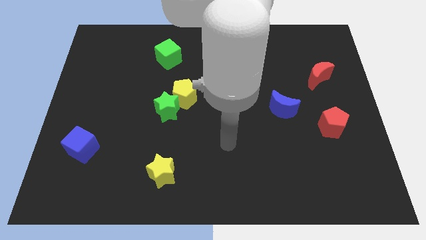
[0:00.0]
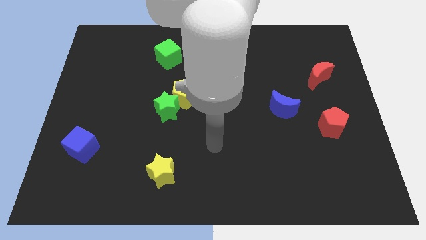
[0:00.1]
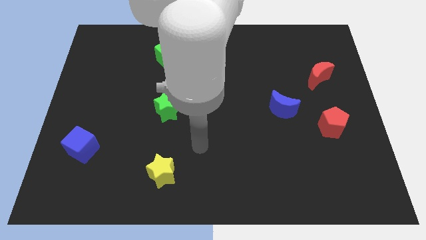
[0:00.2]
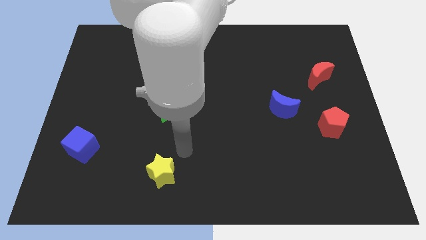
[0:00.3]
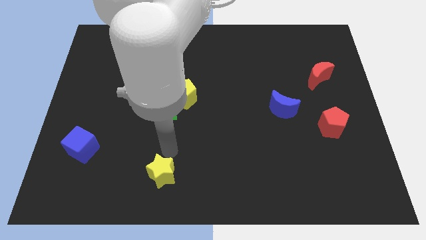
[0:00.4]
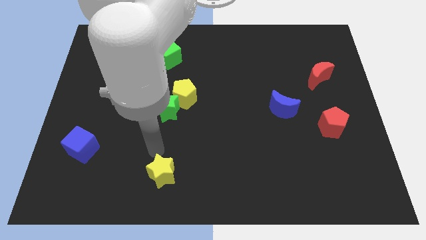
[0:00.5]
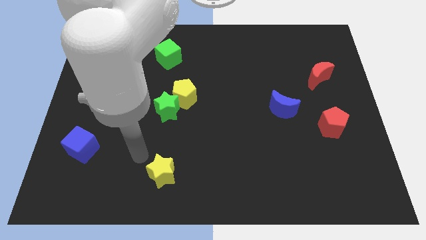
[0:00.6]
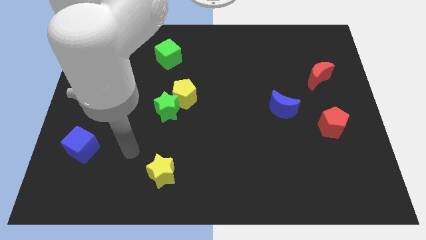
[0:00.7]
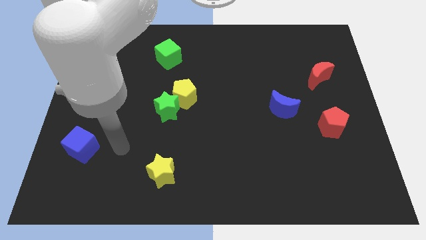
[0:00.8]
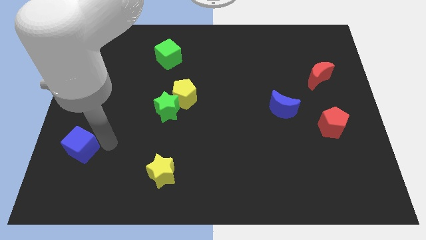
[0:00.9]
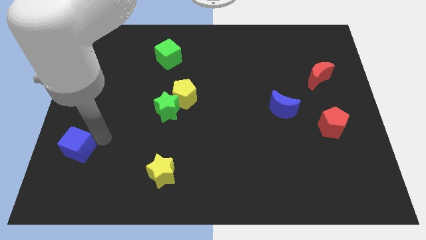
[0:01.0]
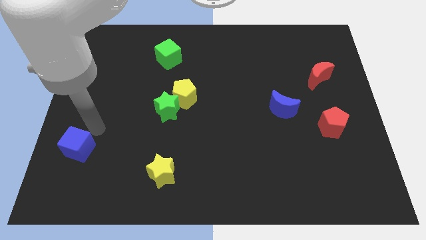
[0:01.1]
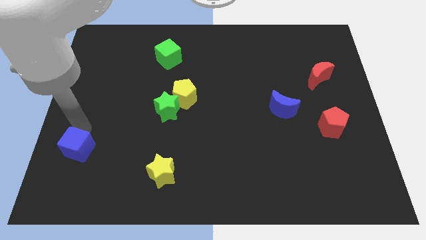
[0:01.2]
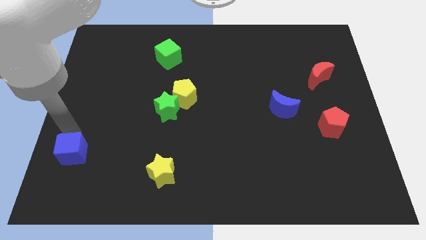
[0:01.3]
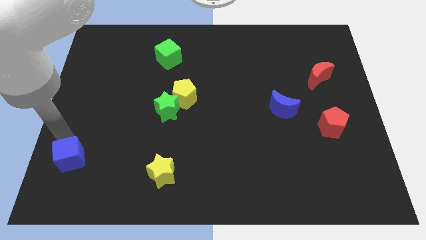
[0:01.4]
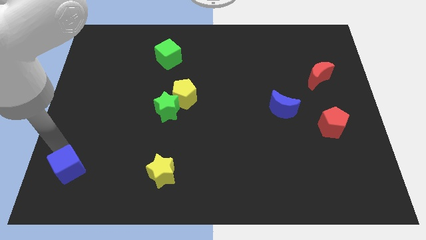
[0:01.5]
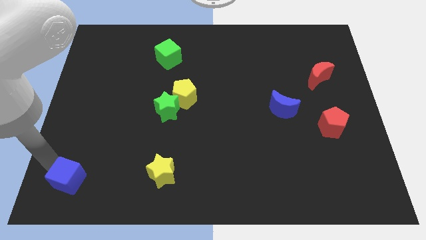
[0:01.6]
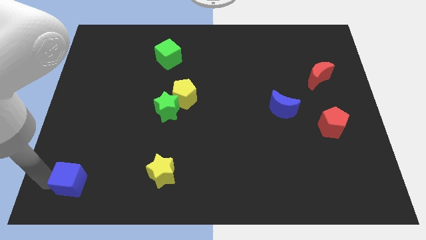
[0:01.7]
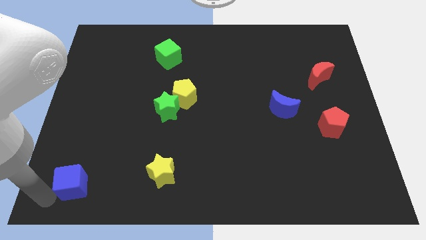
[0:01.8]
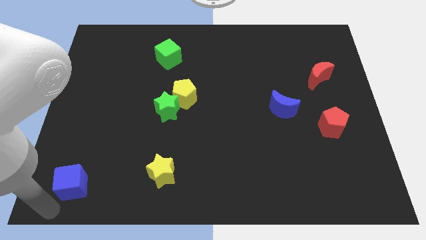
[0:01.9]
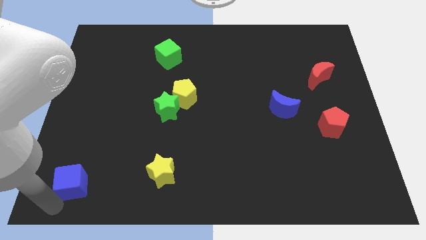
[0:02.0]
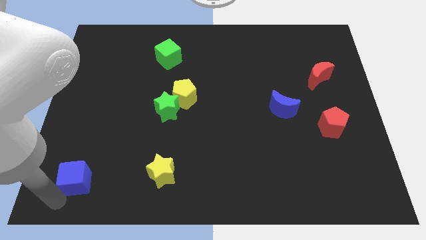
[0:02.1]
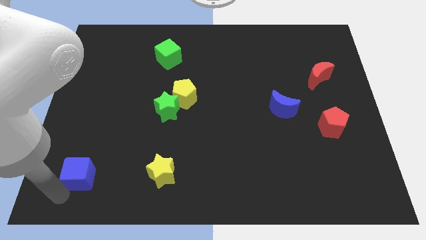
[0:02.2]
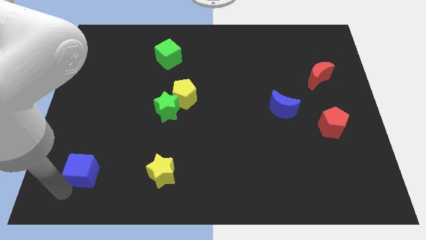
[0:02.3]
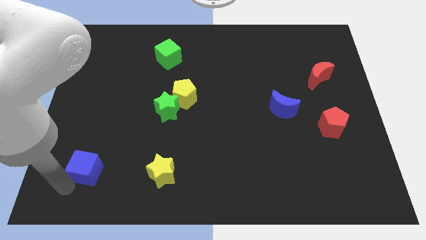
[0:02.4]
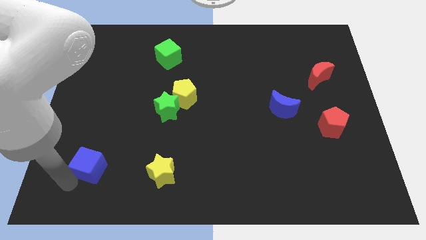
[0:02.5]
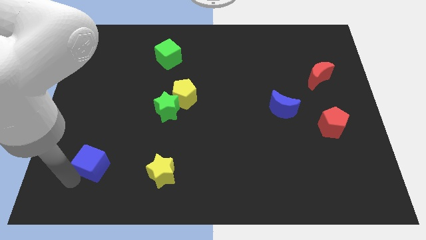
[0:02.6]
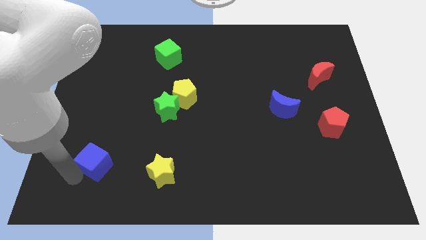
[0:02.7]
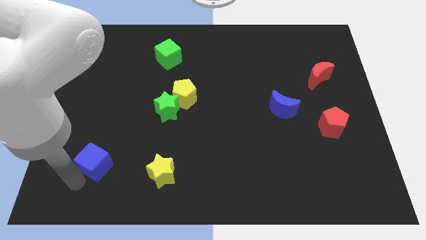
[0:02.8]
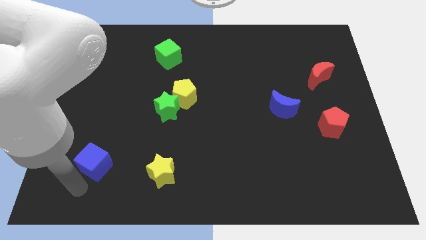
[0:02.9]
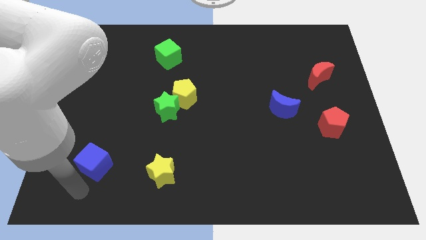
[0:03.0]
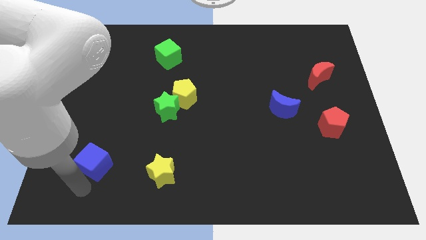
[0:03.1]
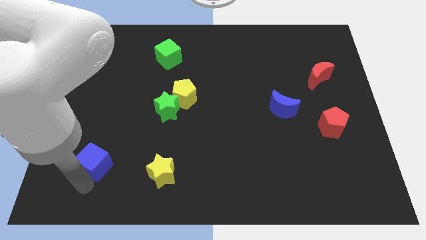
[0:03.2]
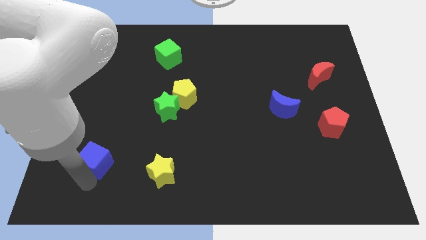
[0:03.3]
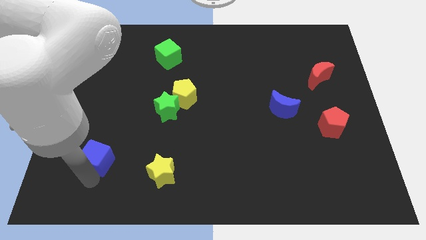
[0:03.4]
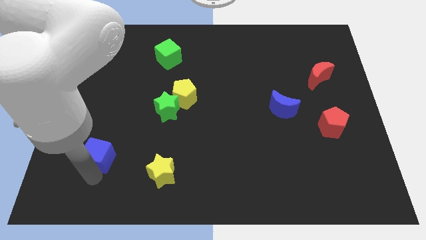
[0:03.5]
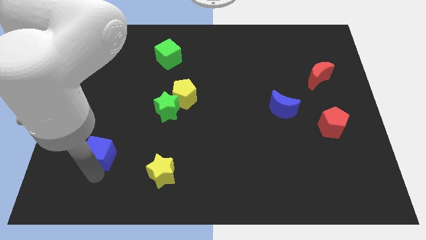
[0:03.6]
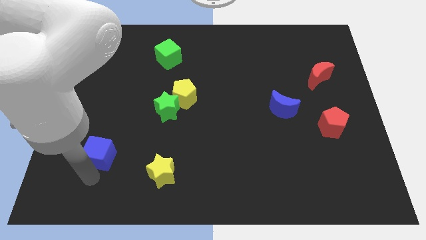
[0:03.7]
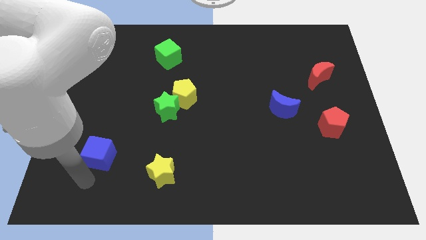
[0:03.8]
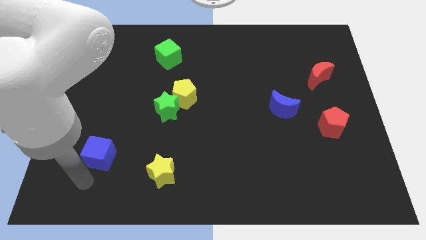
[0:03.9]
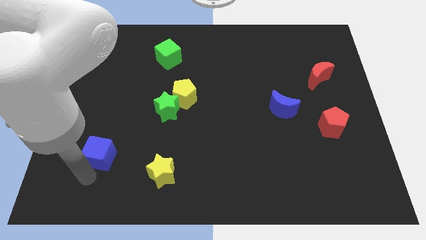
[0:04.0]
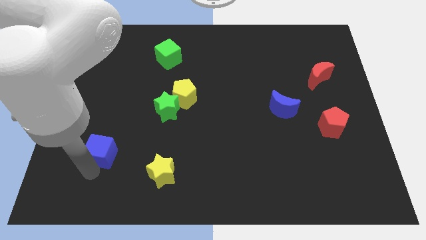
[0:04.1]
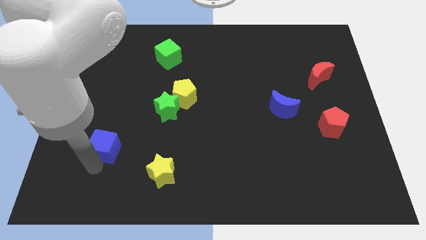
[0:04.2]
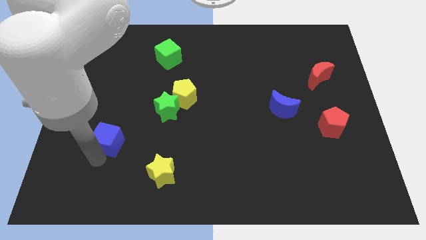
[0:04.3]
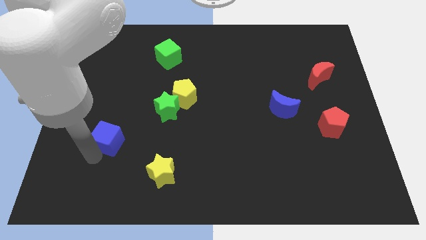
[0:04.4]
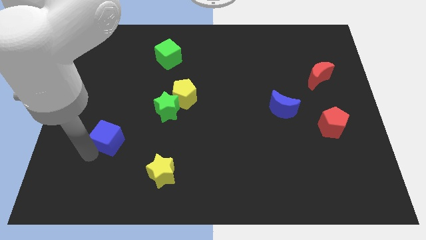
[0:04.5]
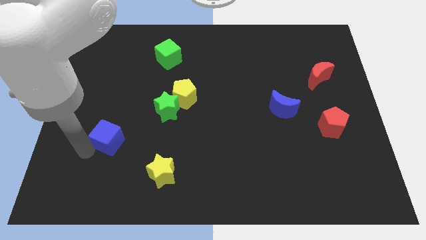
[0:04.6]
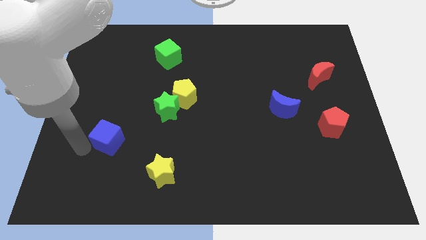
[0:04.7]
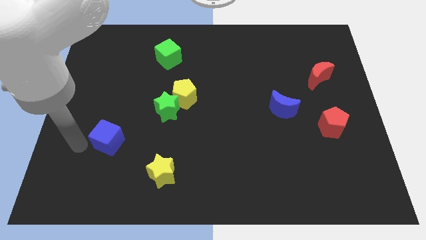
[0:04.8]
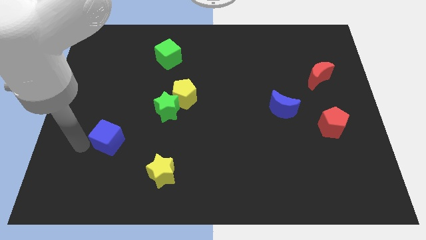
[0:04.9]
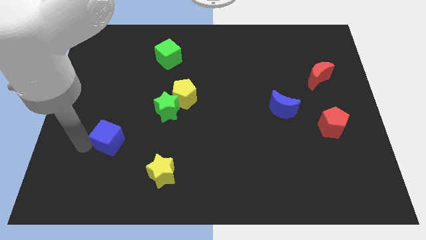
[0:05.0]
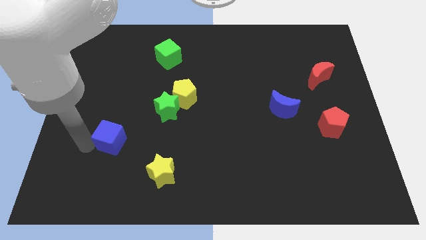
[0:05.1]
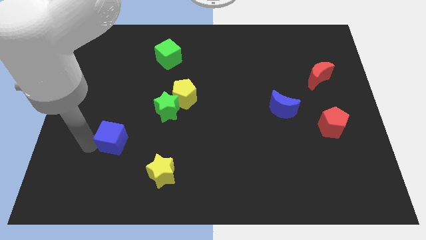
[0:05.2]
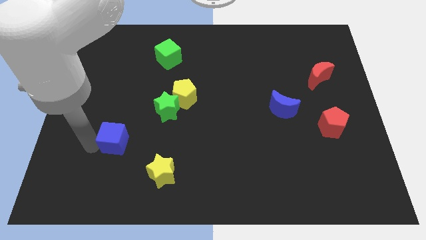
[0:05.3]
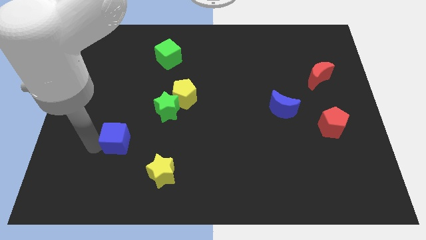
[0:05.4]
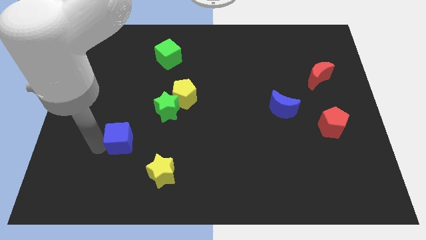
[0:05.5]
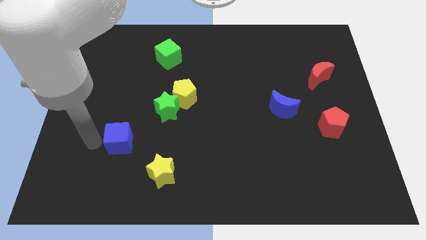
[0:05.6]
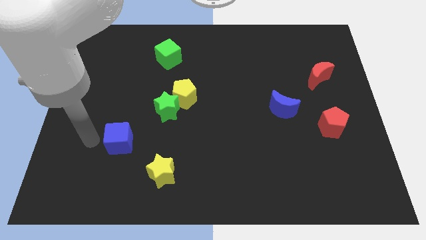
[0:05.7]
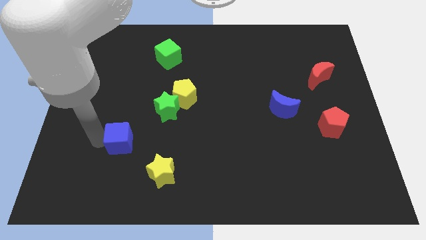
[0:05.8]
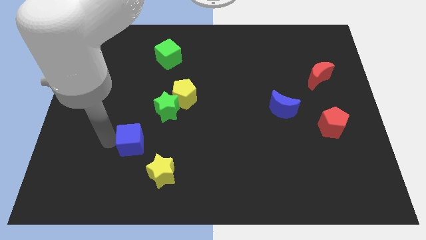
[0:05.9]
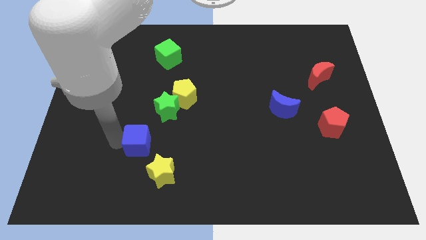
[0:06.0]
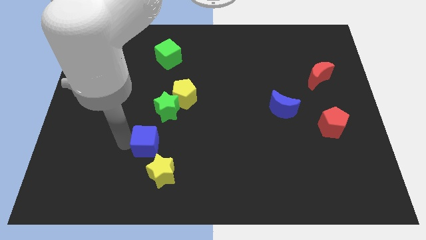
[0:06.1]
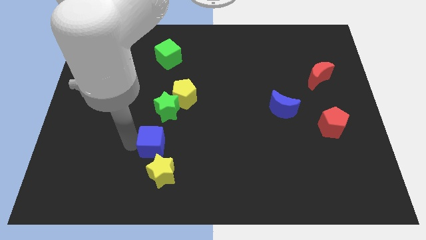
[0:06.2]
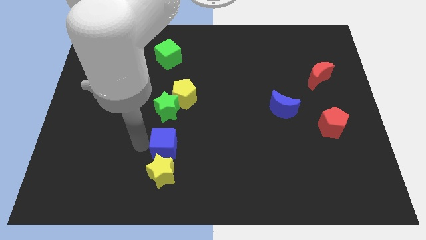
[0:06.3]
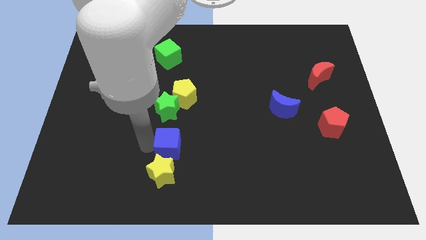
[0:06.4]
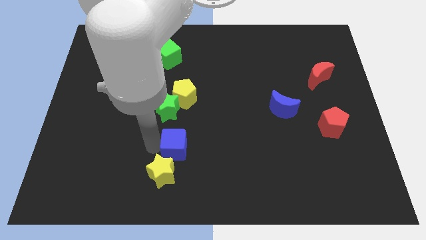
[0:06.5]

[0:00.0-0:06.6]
slide the blue cube to the right

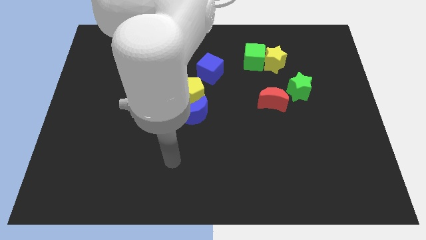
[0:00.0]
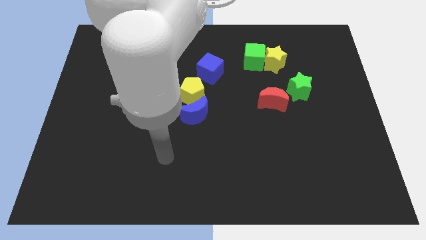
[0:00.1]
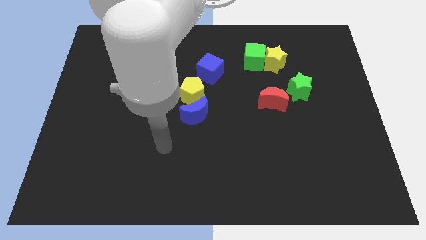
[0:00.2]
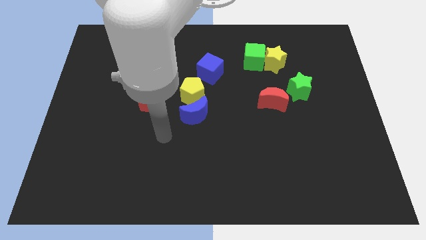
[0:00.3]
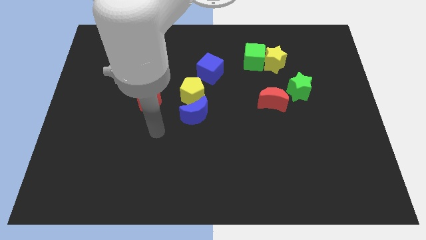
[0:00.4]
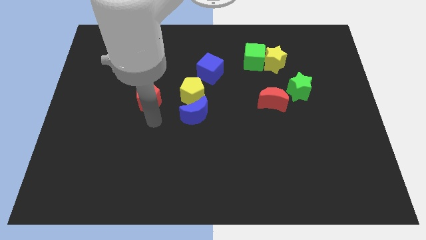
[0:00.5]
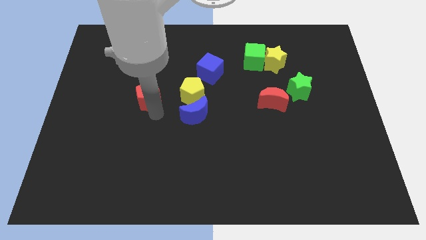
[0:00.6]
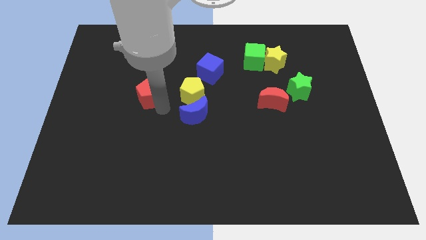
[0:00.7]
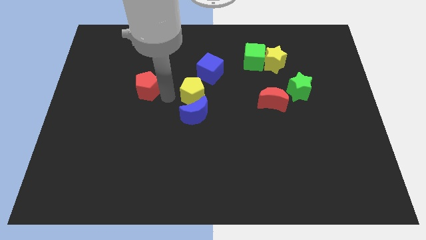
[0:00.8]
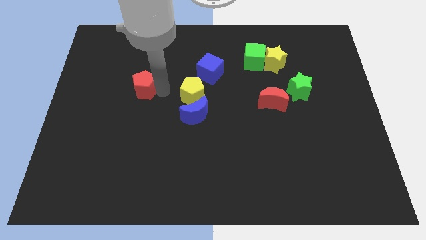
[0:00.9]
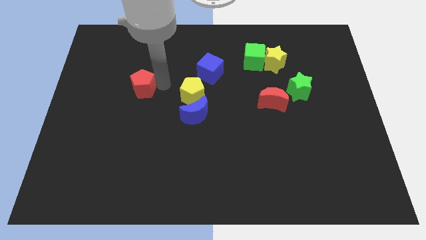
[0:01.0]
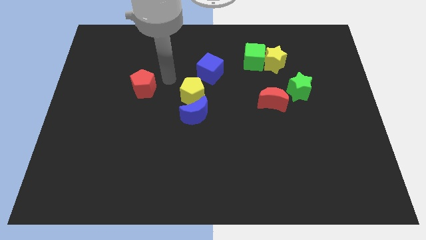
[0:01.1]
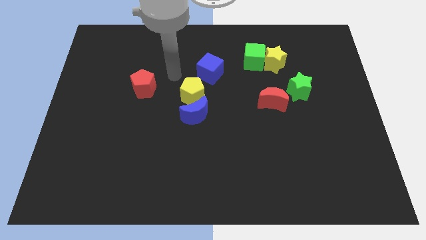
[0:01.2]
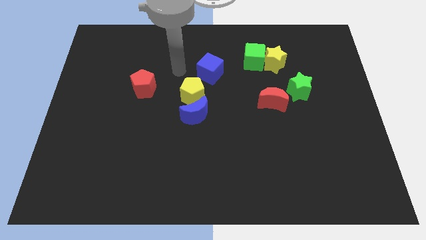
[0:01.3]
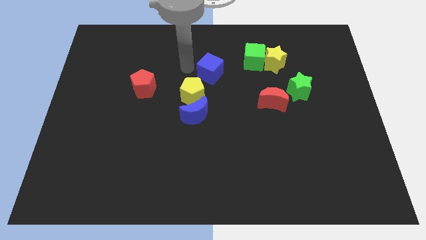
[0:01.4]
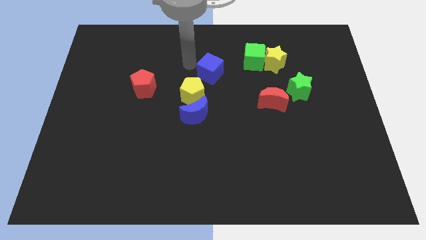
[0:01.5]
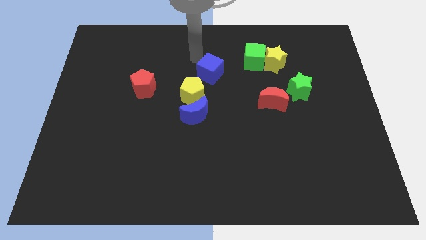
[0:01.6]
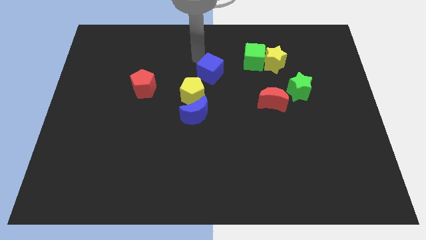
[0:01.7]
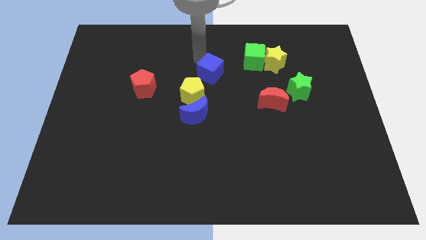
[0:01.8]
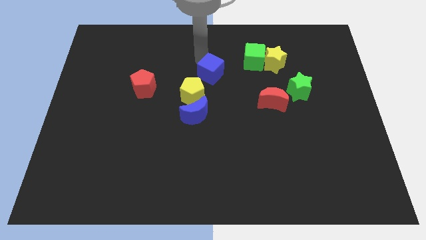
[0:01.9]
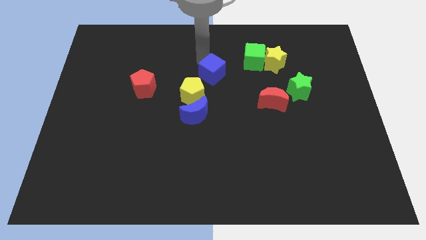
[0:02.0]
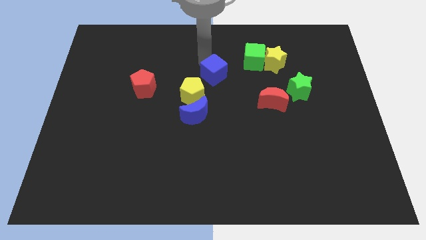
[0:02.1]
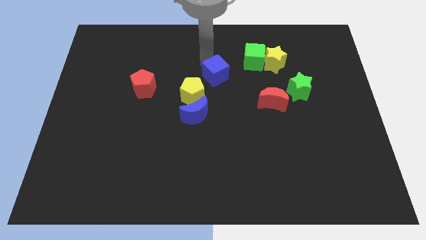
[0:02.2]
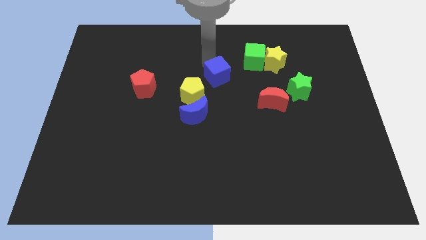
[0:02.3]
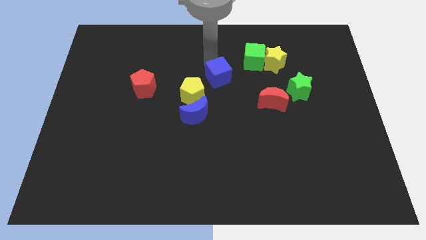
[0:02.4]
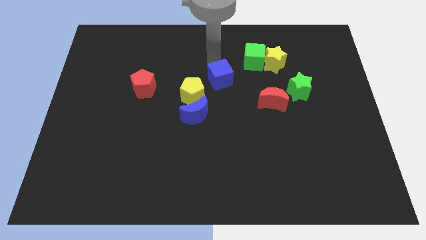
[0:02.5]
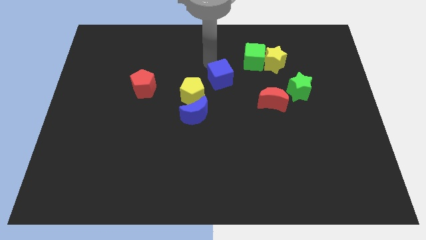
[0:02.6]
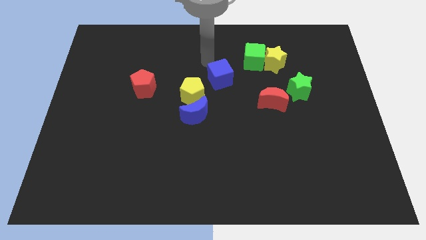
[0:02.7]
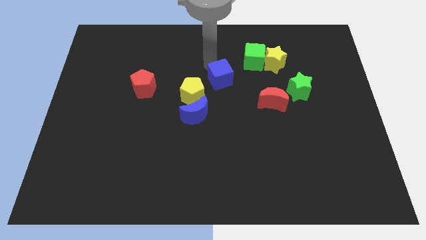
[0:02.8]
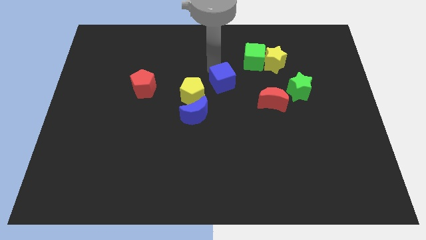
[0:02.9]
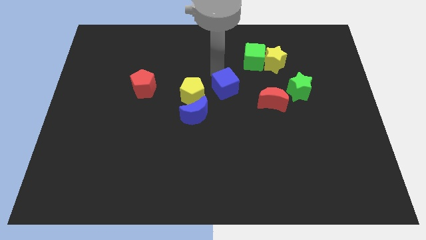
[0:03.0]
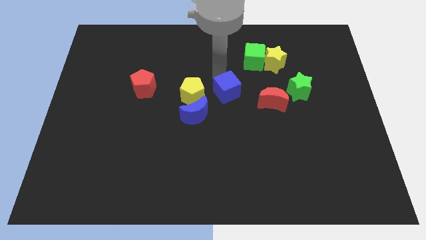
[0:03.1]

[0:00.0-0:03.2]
slightly push the blue cube downwards and then to the right
